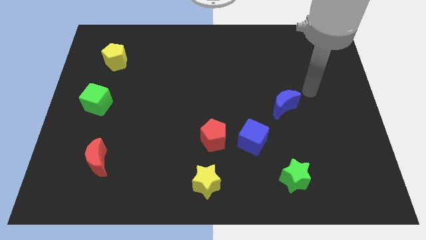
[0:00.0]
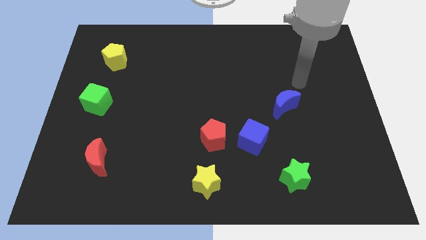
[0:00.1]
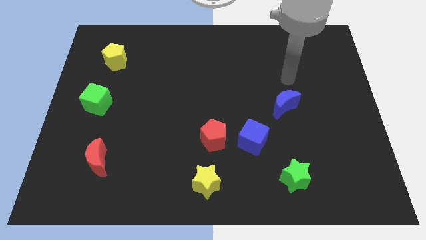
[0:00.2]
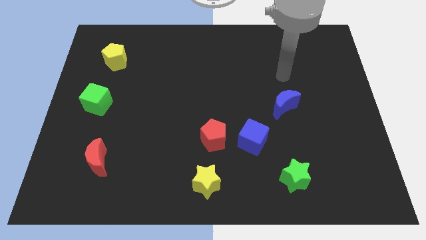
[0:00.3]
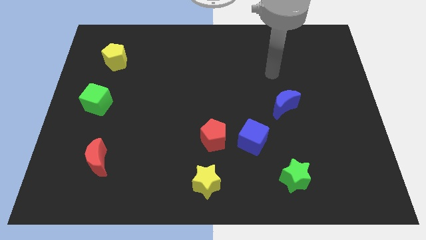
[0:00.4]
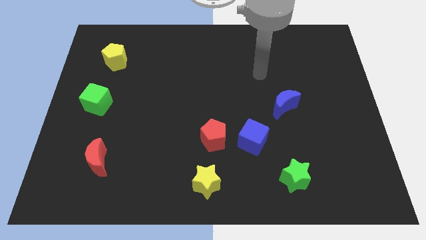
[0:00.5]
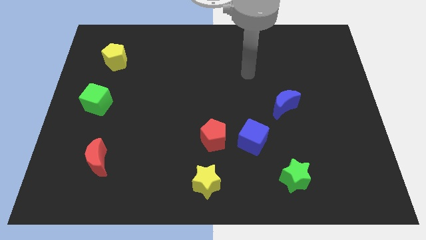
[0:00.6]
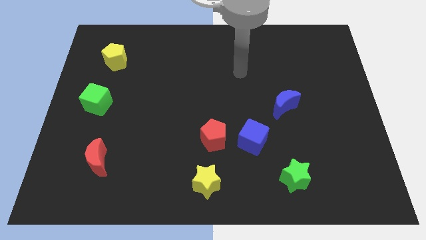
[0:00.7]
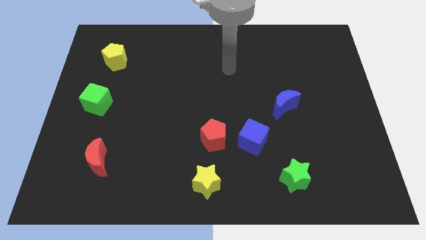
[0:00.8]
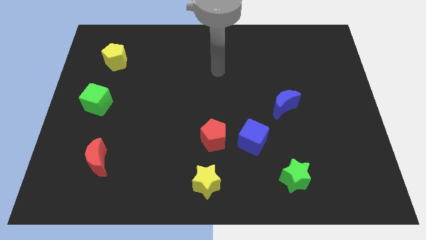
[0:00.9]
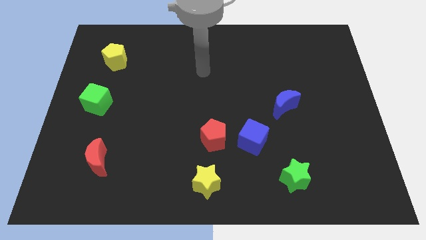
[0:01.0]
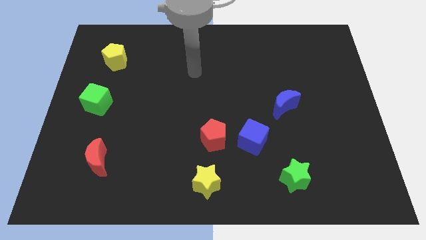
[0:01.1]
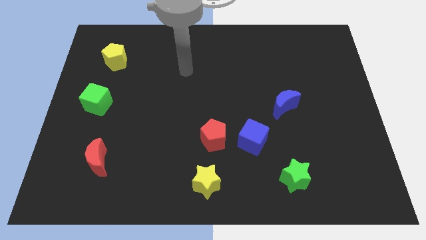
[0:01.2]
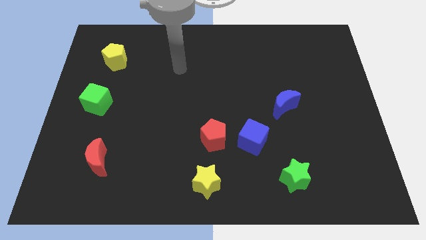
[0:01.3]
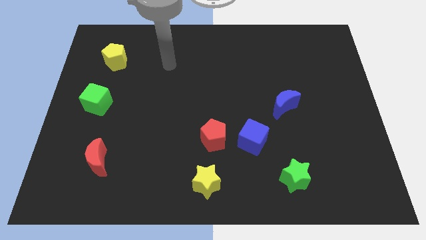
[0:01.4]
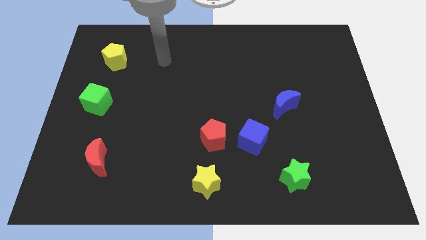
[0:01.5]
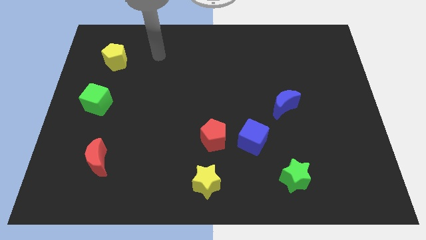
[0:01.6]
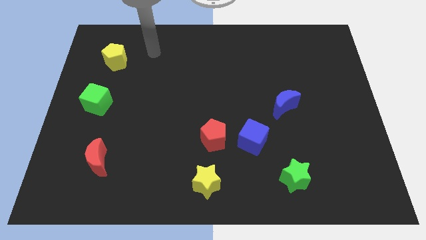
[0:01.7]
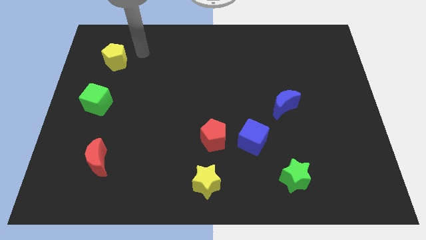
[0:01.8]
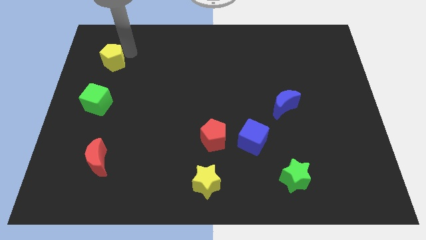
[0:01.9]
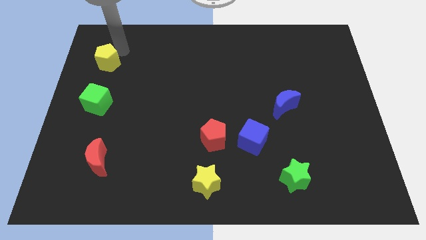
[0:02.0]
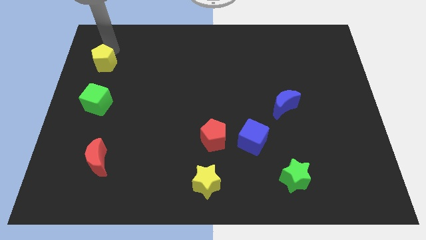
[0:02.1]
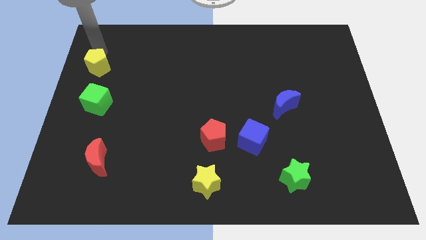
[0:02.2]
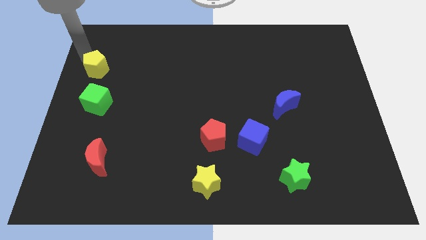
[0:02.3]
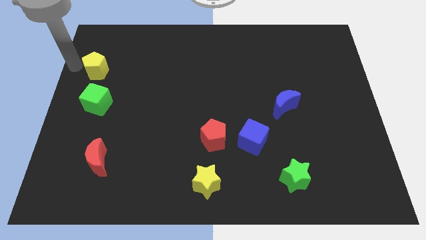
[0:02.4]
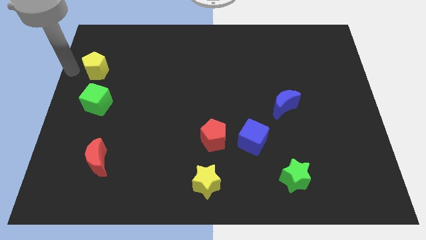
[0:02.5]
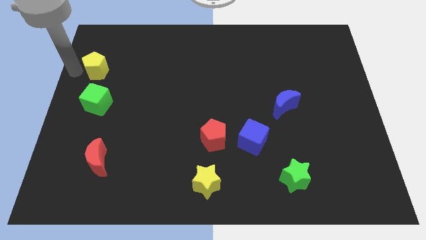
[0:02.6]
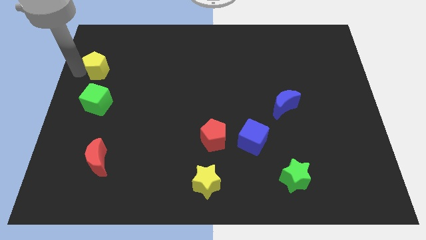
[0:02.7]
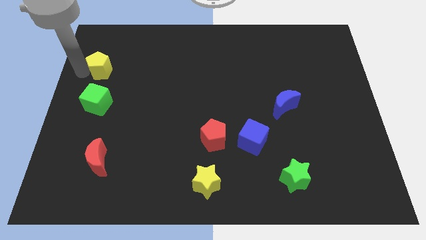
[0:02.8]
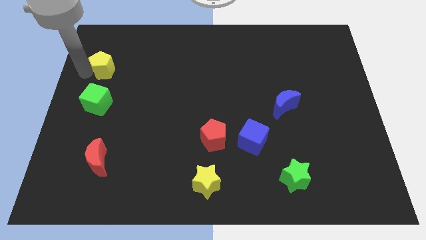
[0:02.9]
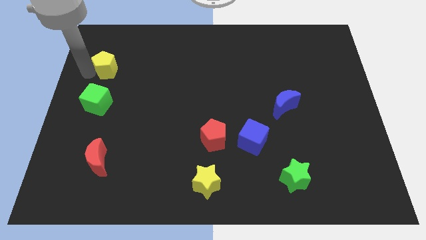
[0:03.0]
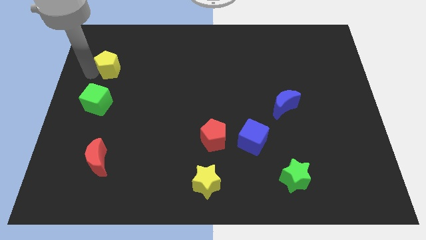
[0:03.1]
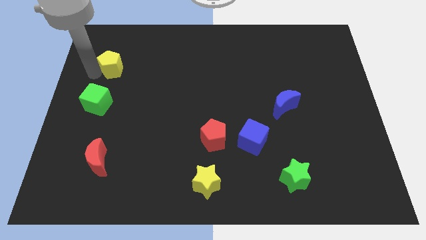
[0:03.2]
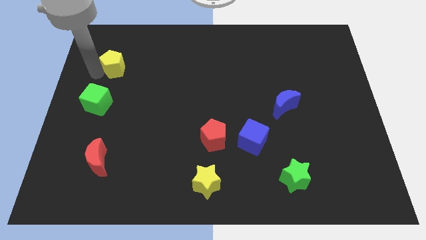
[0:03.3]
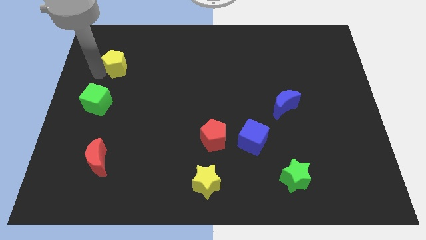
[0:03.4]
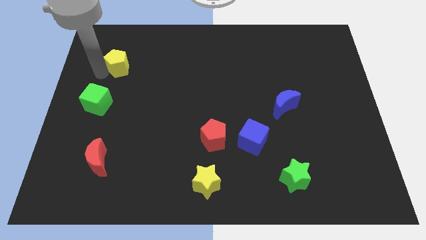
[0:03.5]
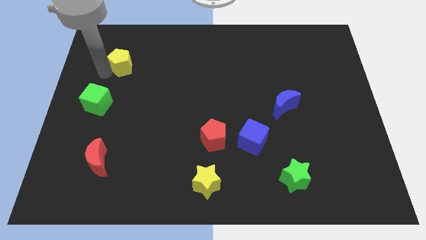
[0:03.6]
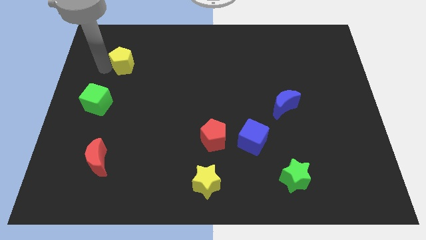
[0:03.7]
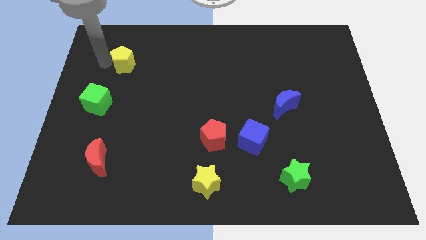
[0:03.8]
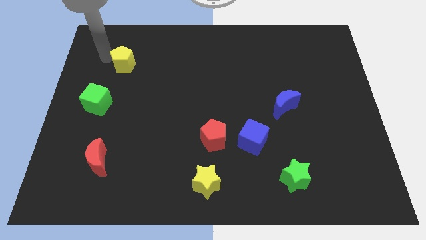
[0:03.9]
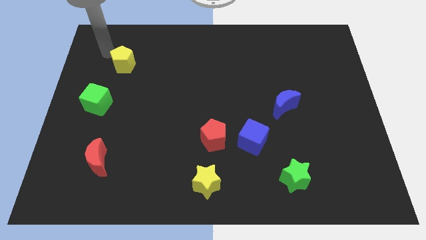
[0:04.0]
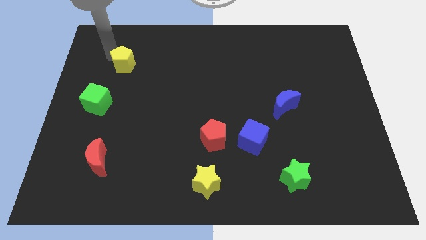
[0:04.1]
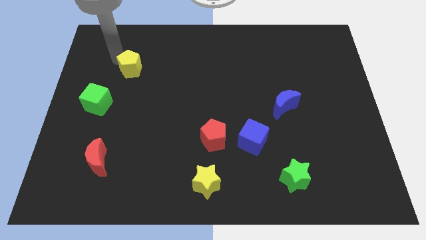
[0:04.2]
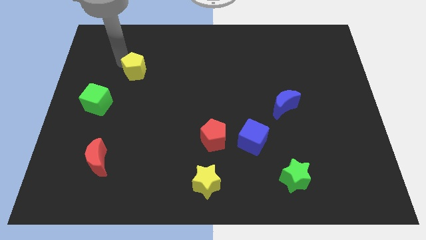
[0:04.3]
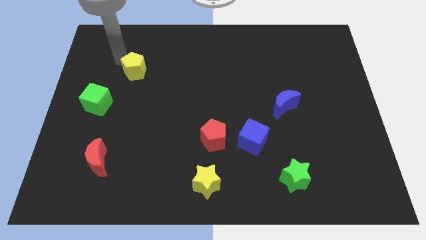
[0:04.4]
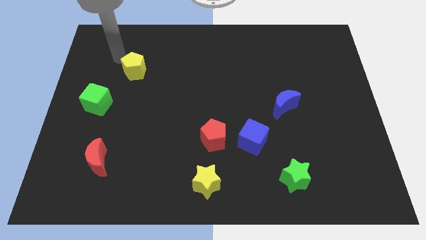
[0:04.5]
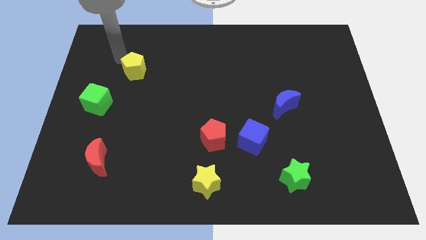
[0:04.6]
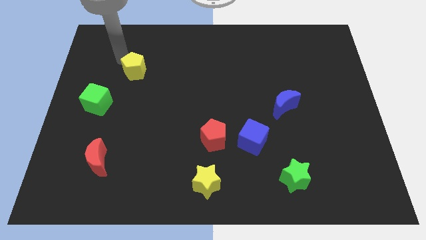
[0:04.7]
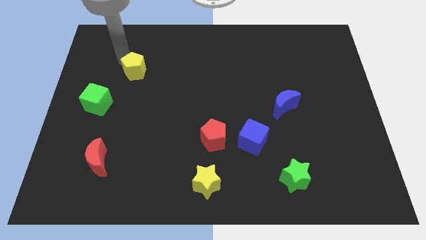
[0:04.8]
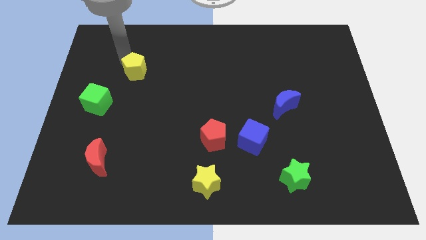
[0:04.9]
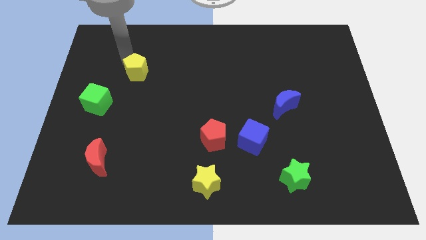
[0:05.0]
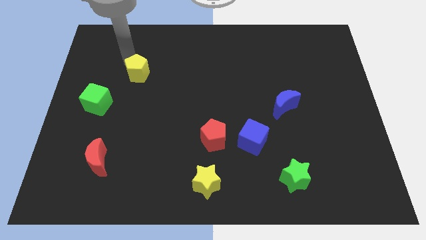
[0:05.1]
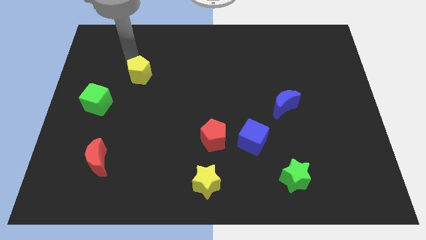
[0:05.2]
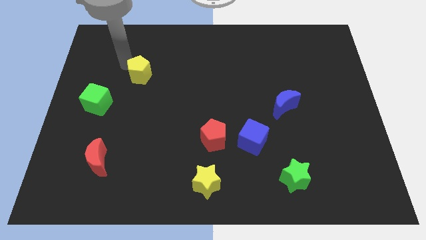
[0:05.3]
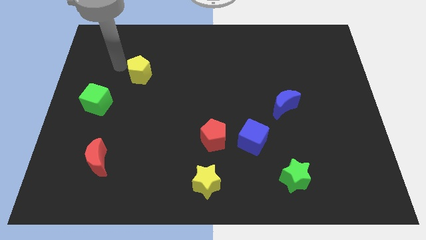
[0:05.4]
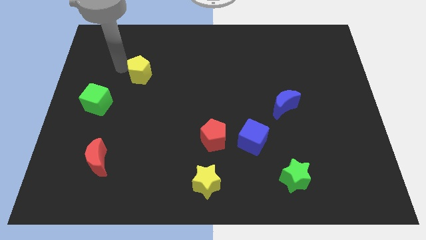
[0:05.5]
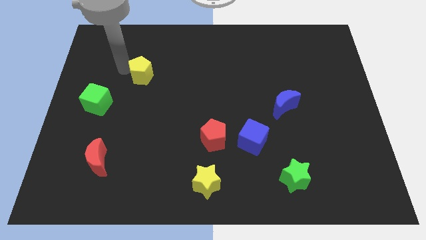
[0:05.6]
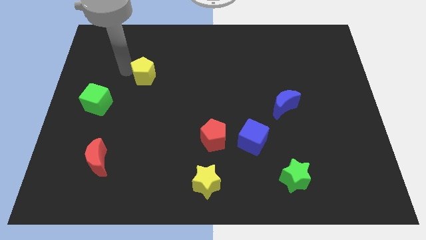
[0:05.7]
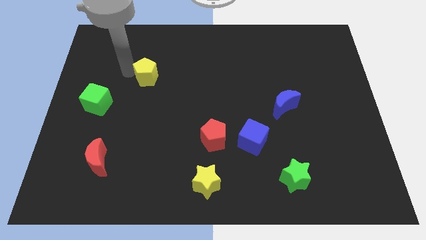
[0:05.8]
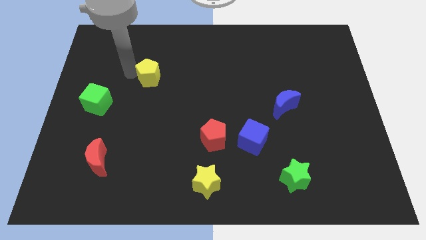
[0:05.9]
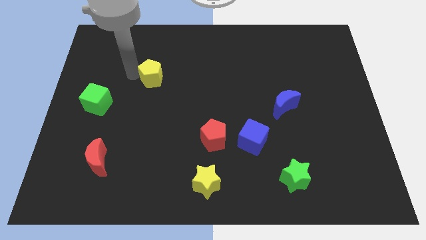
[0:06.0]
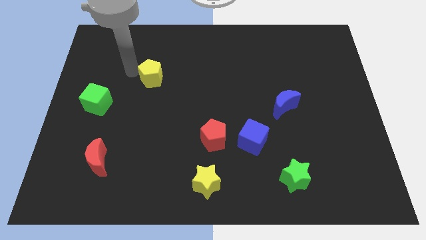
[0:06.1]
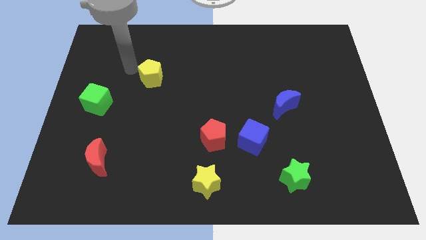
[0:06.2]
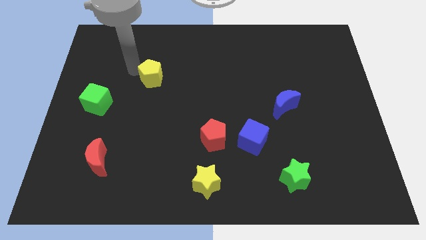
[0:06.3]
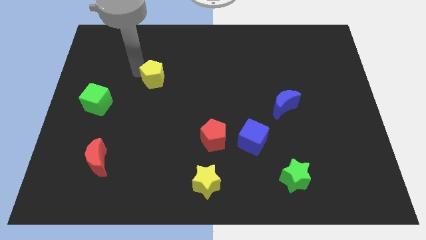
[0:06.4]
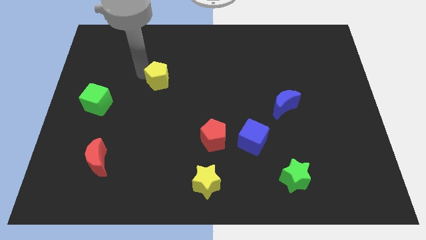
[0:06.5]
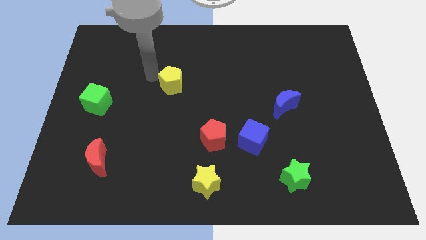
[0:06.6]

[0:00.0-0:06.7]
slide the yellow pentagon to the middle
